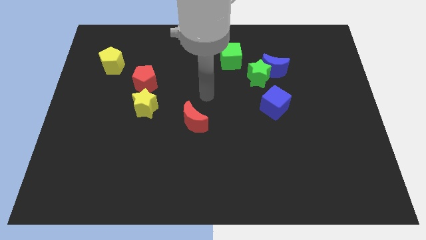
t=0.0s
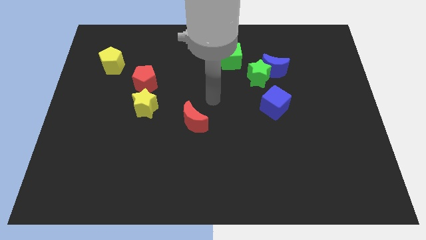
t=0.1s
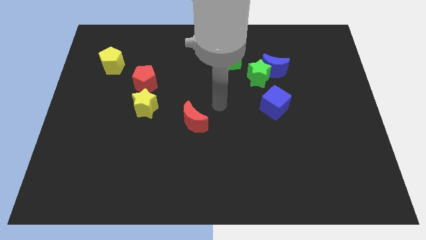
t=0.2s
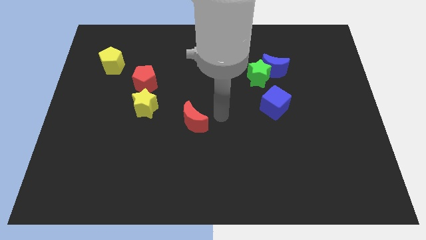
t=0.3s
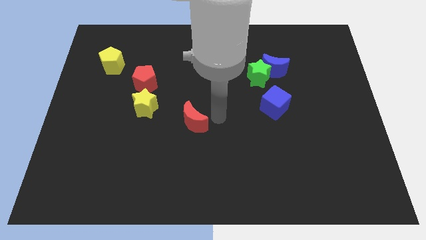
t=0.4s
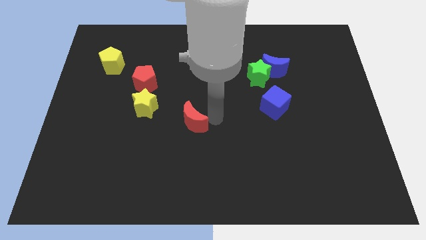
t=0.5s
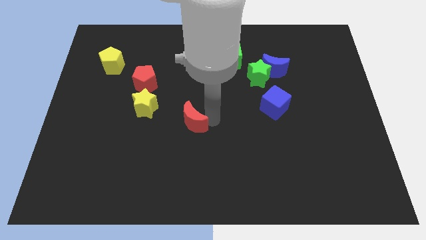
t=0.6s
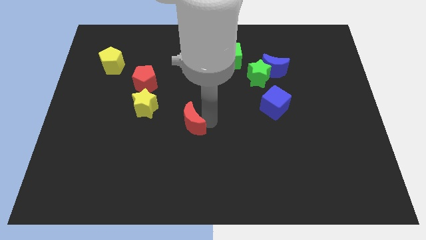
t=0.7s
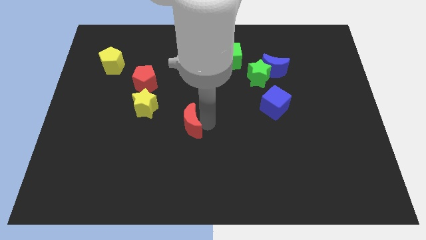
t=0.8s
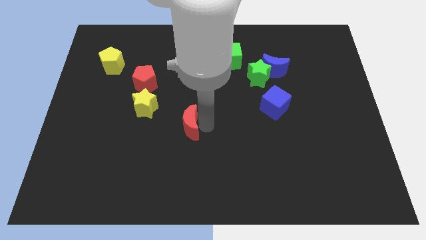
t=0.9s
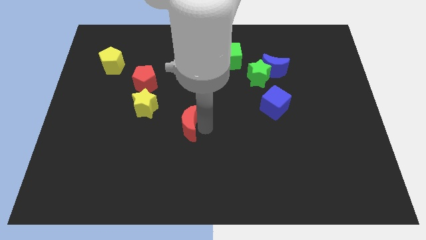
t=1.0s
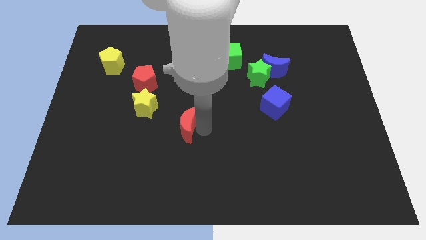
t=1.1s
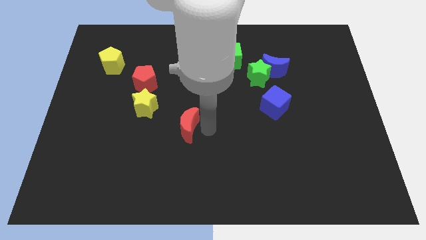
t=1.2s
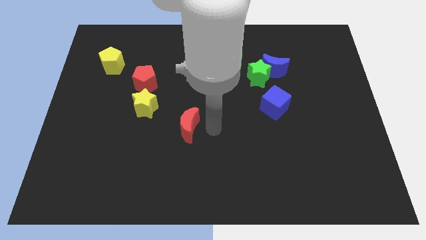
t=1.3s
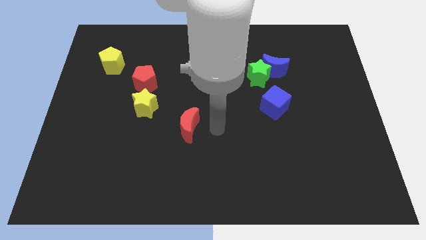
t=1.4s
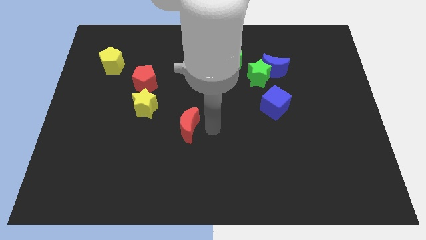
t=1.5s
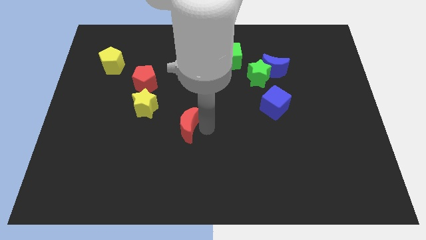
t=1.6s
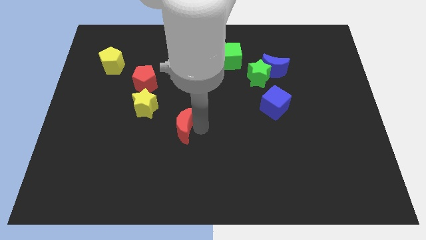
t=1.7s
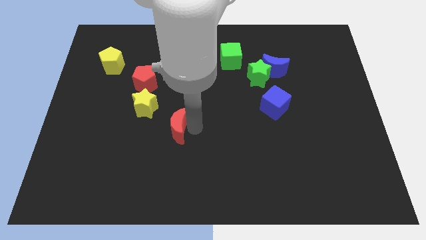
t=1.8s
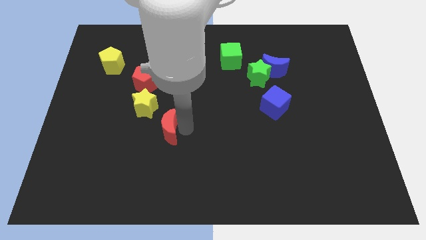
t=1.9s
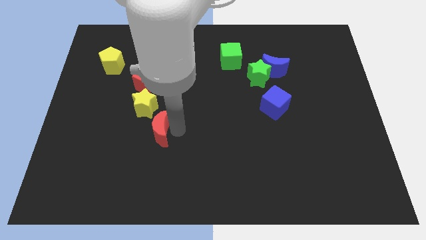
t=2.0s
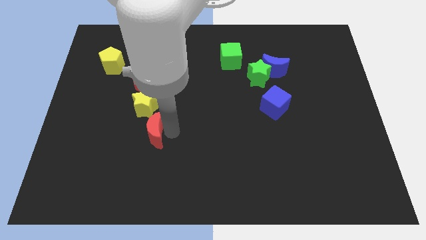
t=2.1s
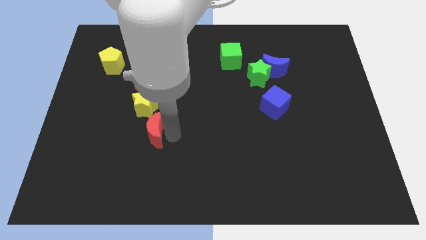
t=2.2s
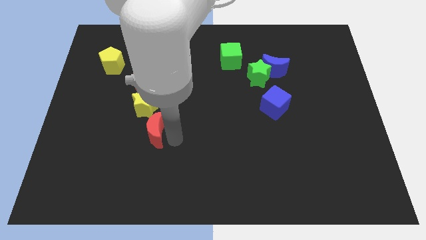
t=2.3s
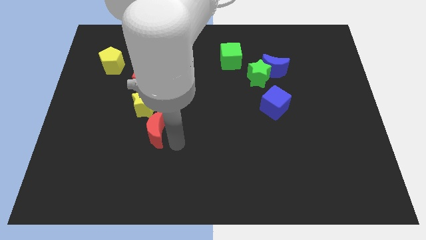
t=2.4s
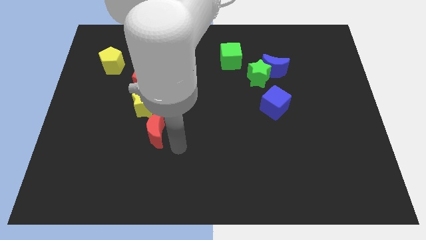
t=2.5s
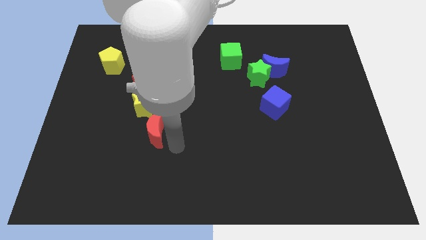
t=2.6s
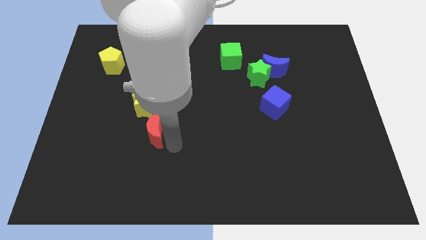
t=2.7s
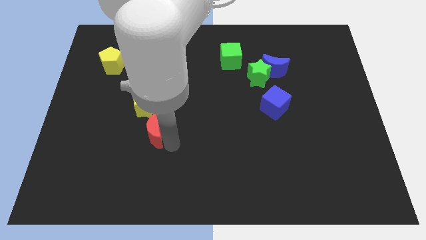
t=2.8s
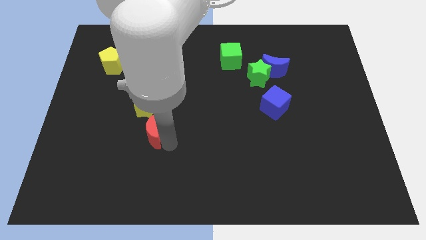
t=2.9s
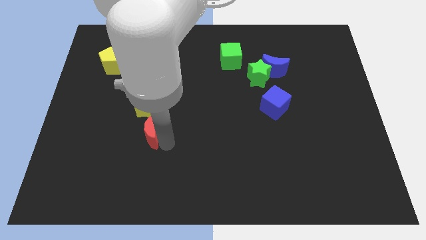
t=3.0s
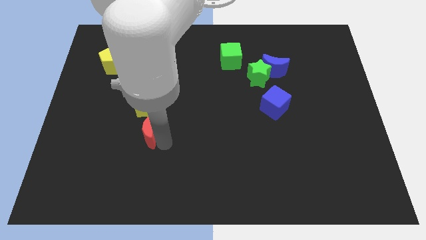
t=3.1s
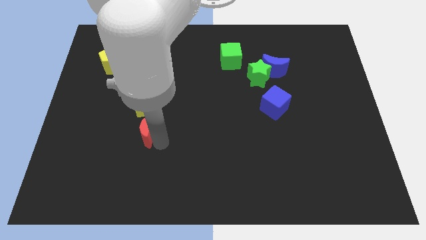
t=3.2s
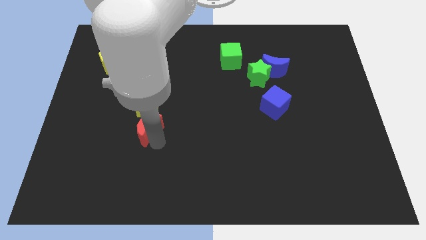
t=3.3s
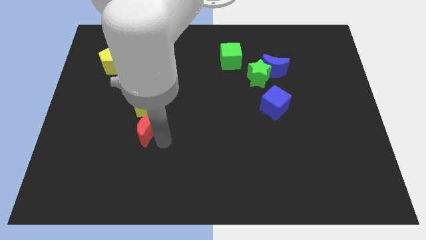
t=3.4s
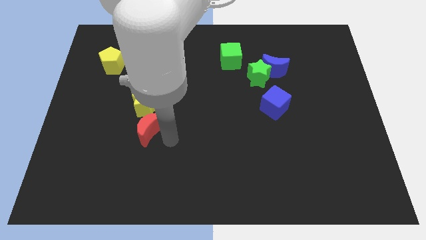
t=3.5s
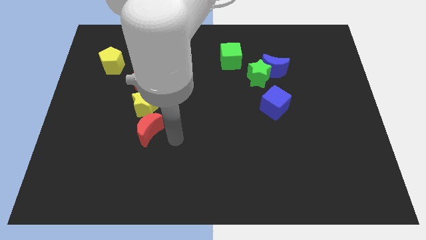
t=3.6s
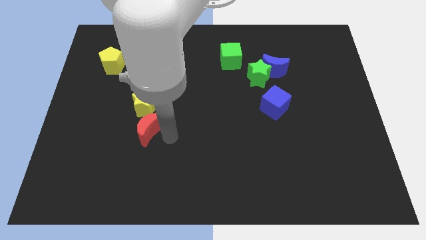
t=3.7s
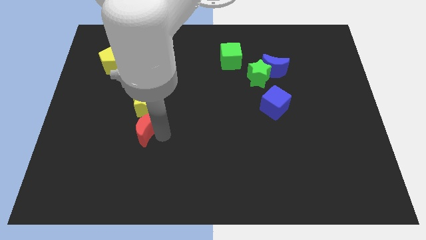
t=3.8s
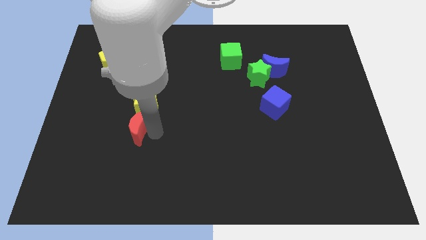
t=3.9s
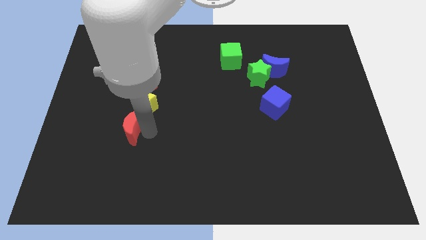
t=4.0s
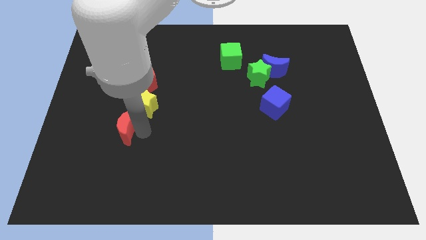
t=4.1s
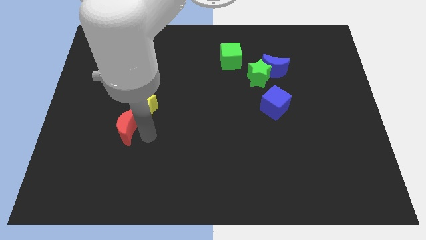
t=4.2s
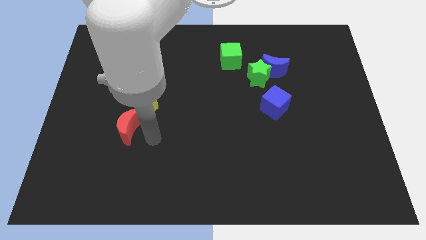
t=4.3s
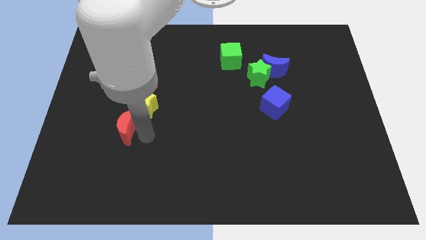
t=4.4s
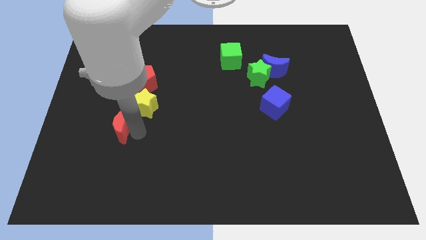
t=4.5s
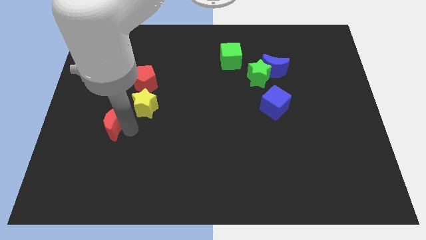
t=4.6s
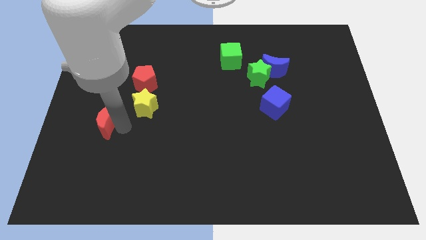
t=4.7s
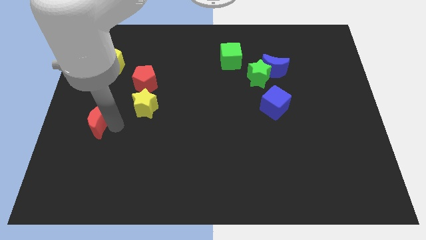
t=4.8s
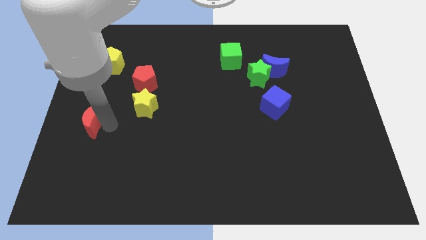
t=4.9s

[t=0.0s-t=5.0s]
push the red moon to the center left

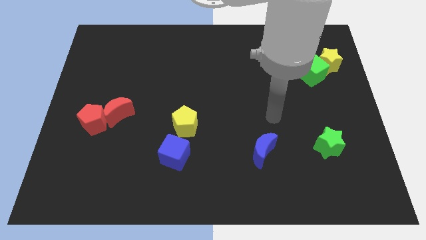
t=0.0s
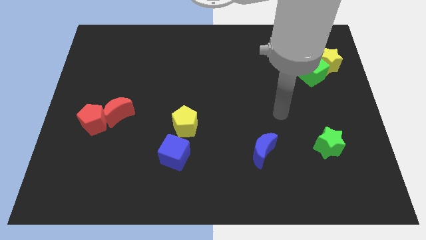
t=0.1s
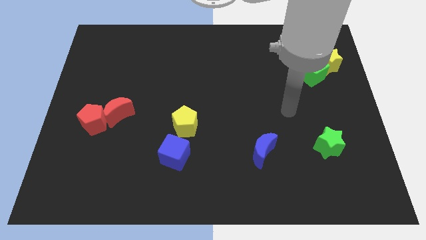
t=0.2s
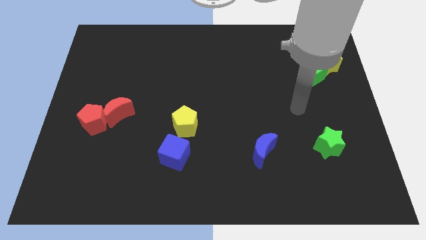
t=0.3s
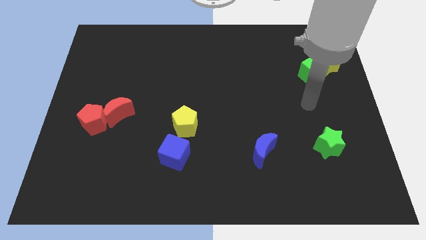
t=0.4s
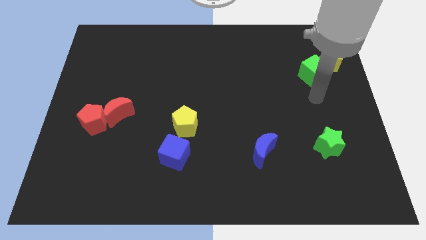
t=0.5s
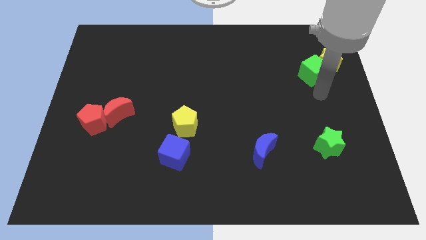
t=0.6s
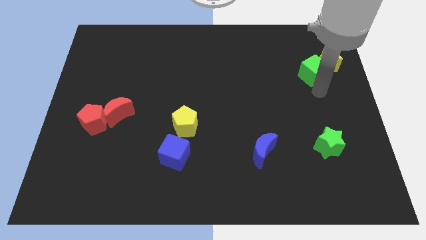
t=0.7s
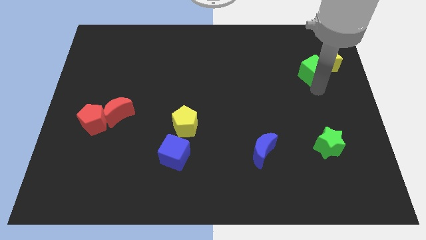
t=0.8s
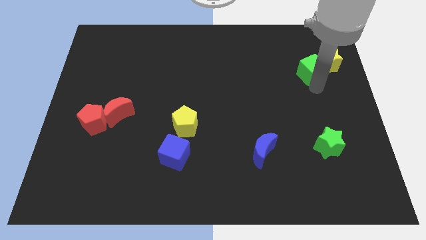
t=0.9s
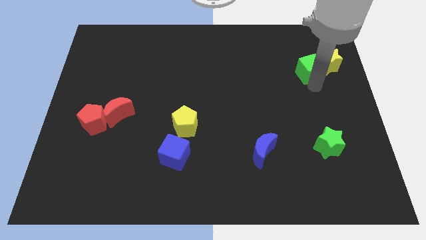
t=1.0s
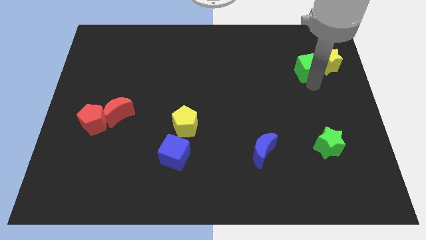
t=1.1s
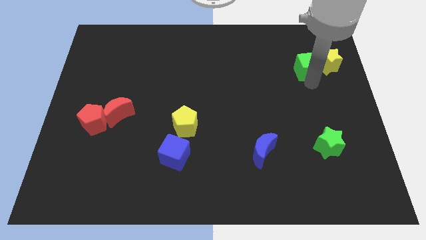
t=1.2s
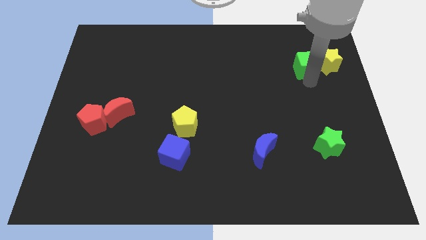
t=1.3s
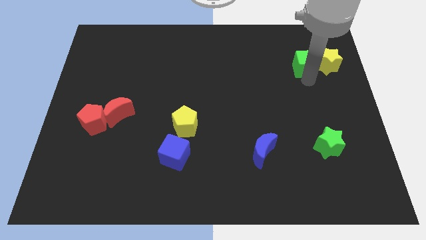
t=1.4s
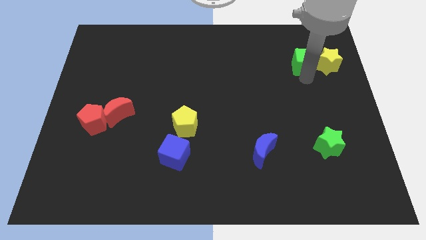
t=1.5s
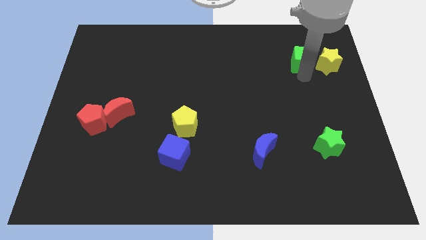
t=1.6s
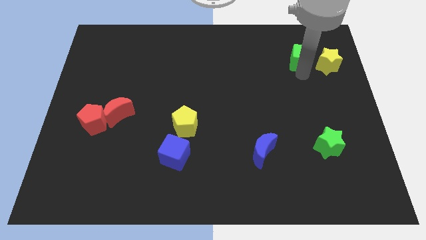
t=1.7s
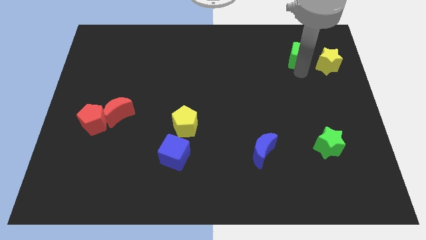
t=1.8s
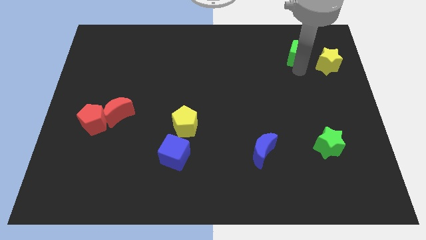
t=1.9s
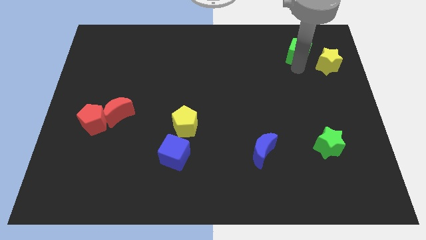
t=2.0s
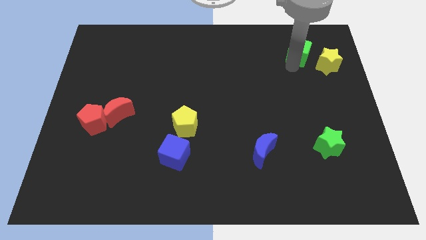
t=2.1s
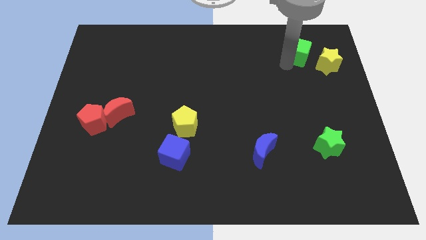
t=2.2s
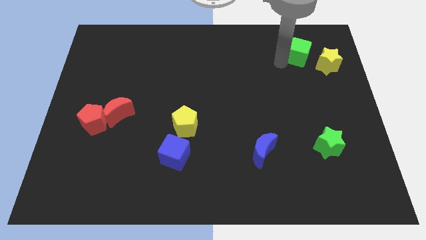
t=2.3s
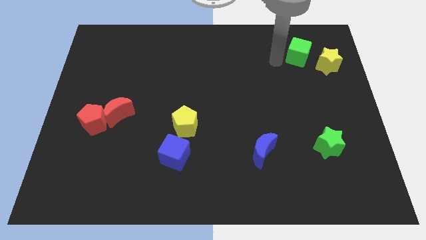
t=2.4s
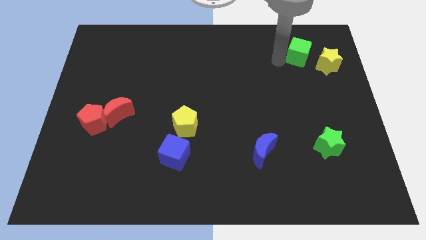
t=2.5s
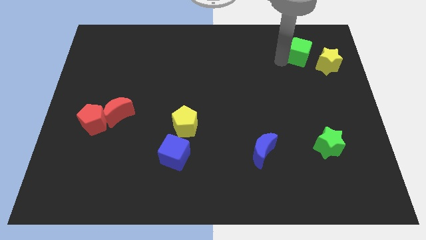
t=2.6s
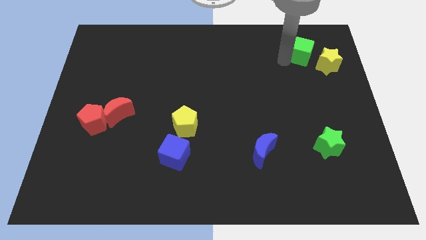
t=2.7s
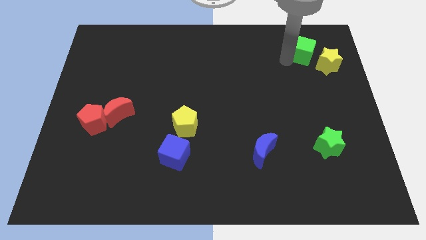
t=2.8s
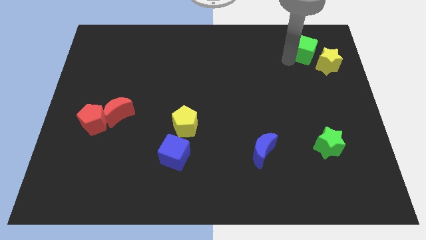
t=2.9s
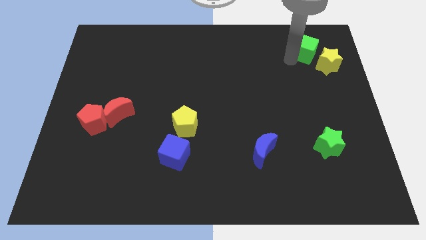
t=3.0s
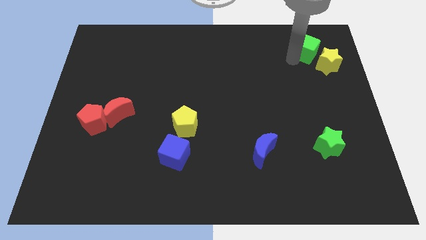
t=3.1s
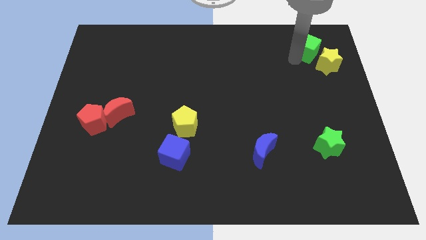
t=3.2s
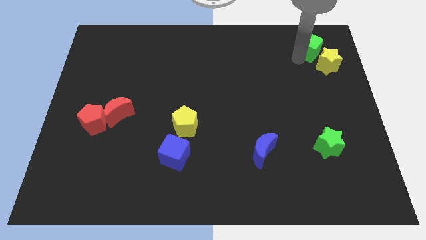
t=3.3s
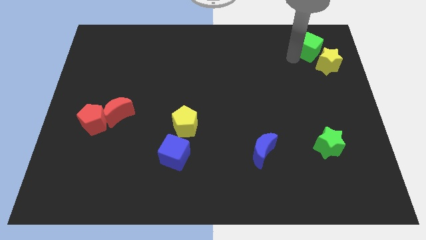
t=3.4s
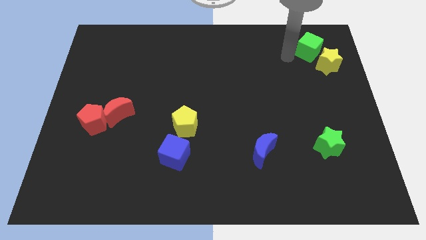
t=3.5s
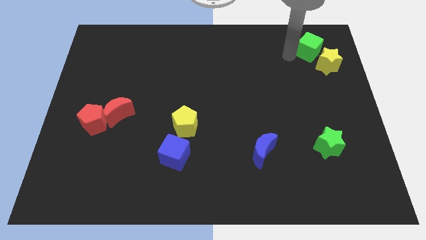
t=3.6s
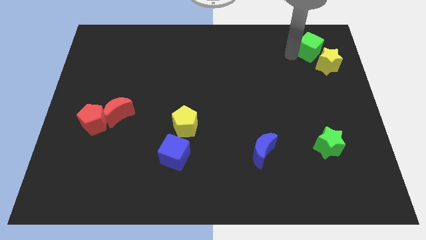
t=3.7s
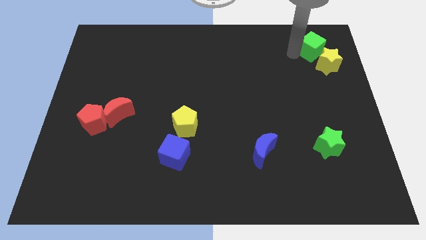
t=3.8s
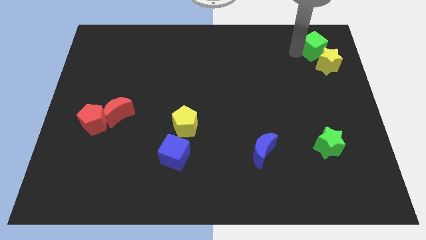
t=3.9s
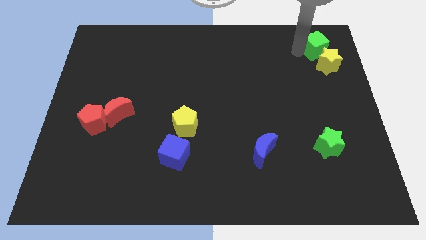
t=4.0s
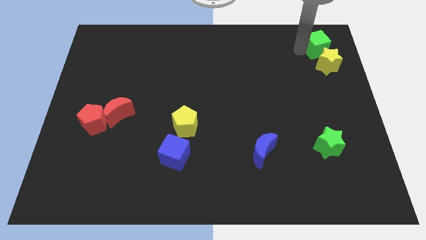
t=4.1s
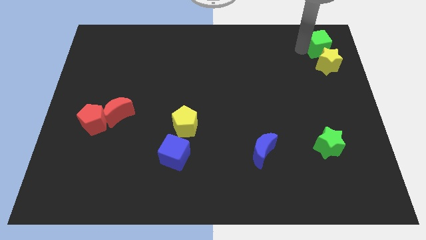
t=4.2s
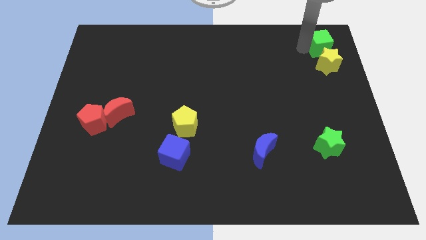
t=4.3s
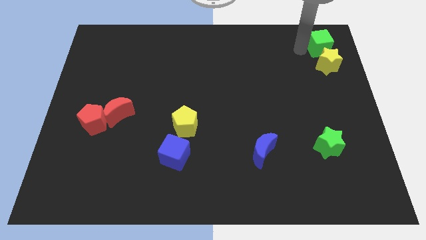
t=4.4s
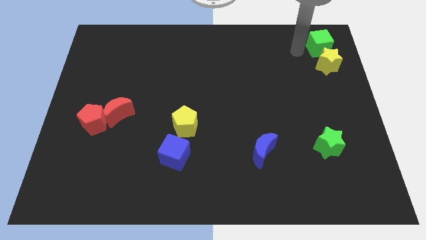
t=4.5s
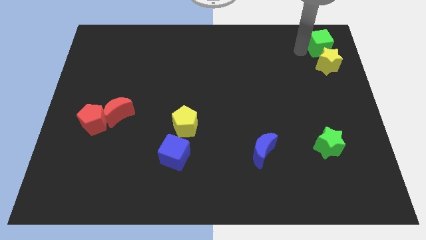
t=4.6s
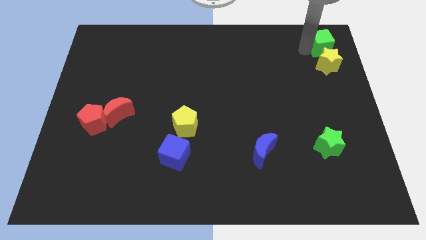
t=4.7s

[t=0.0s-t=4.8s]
put the green cube to the upper right corner
